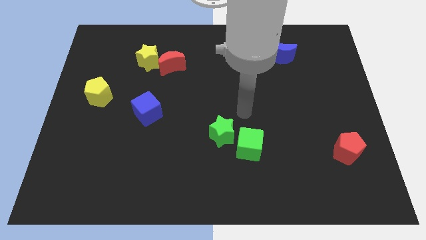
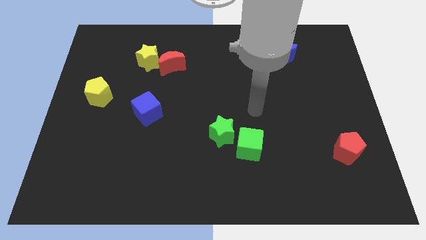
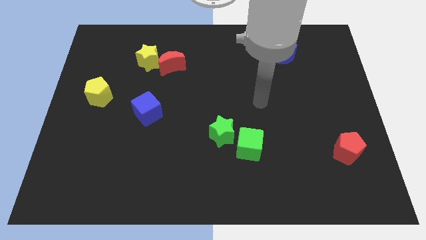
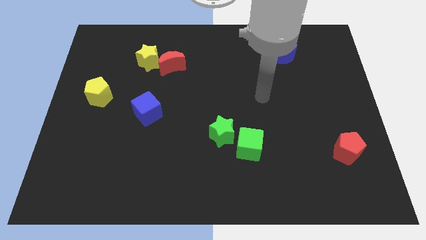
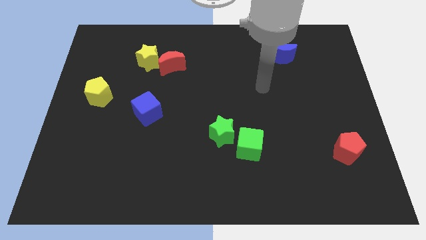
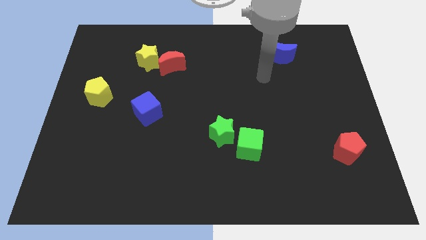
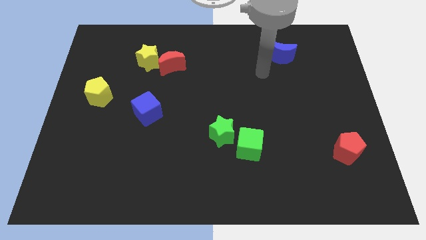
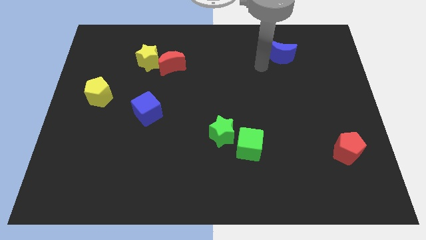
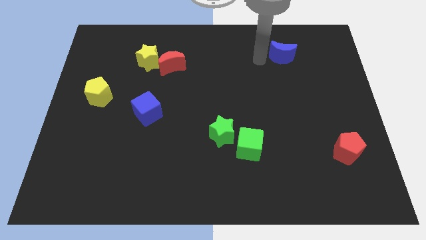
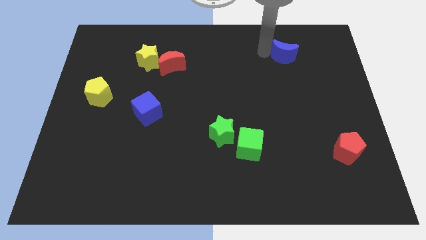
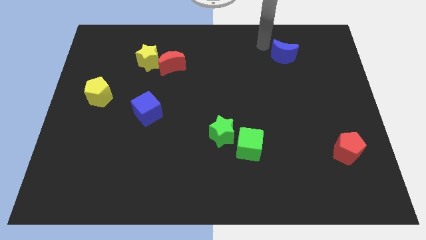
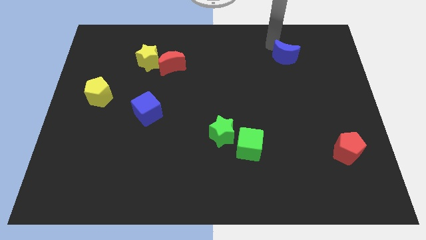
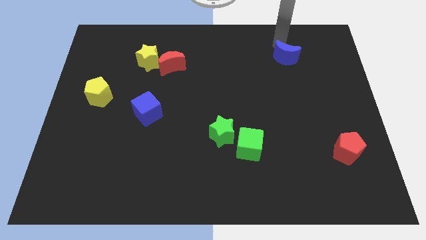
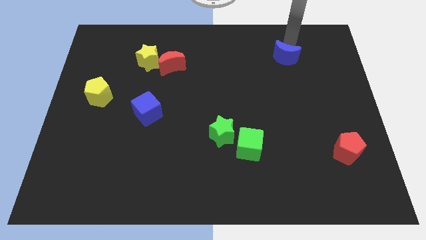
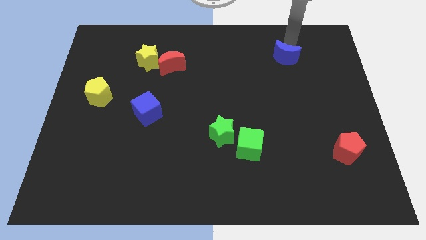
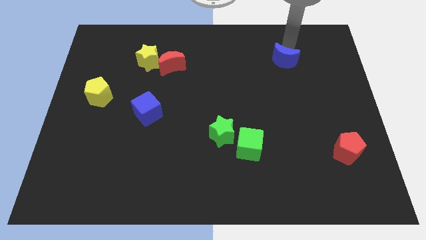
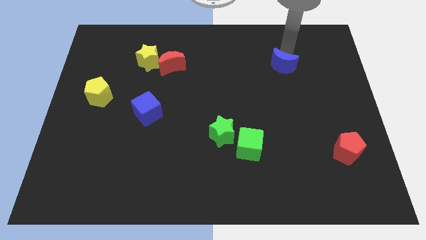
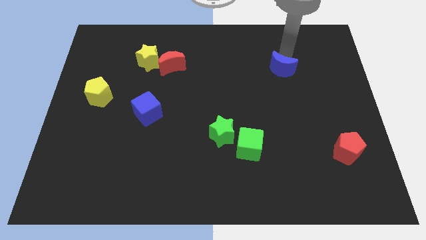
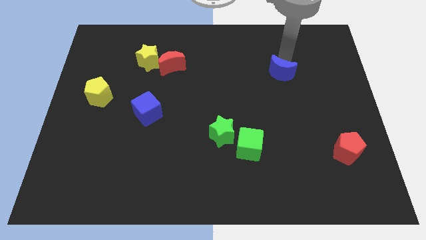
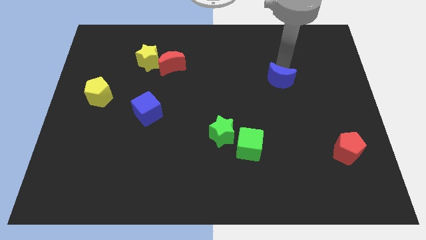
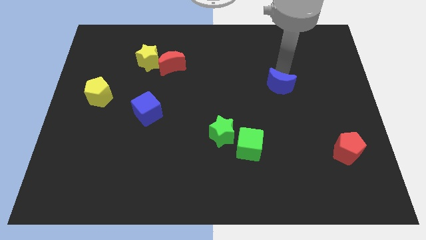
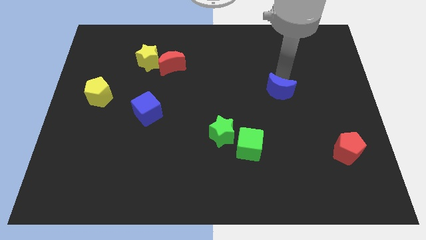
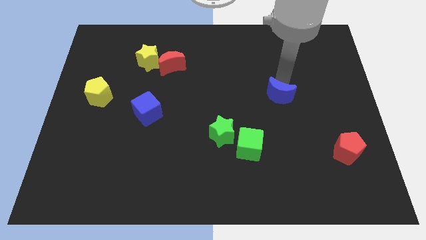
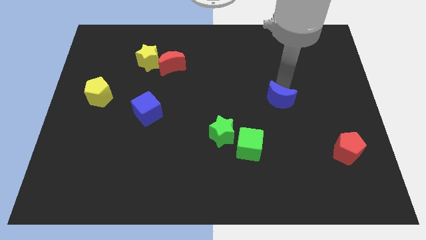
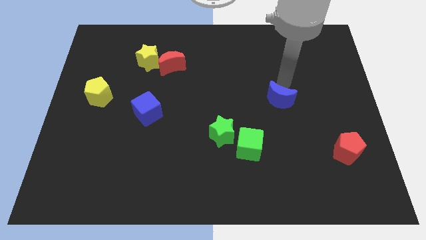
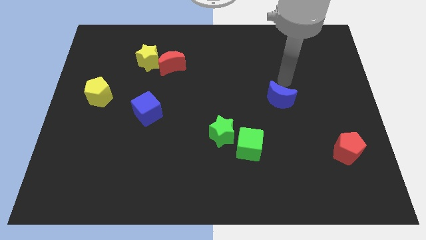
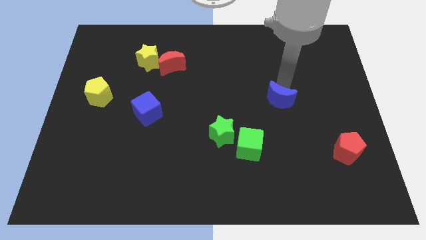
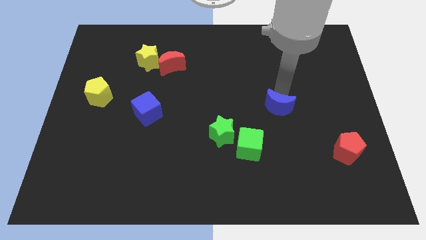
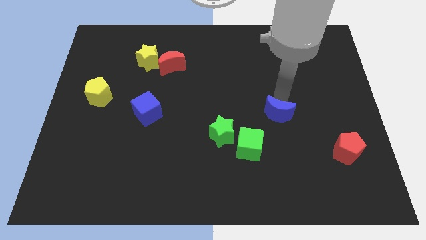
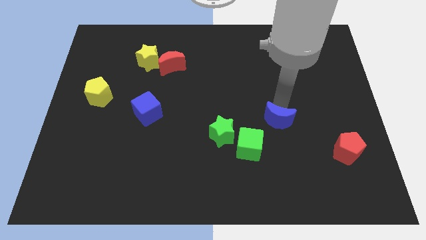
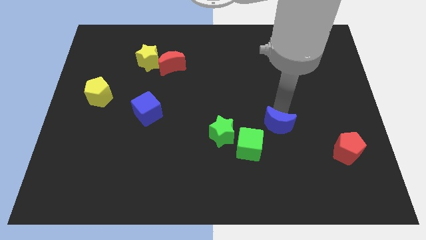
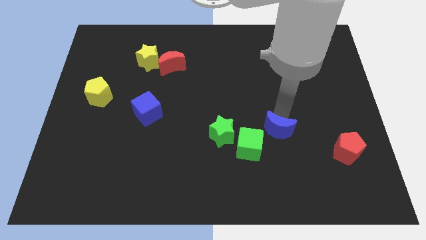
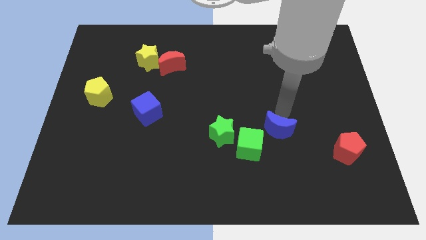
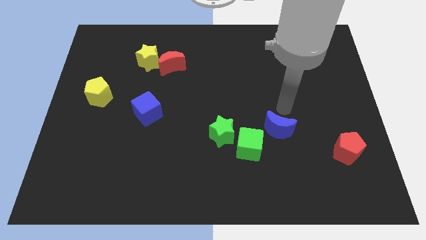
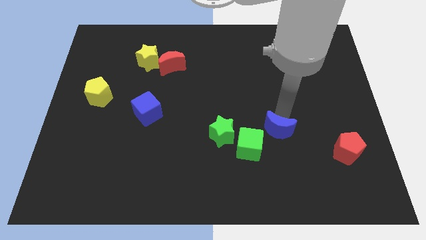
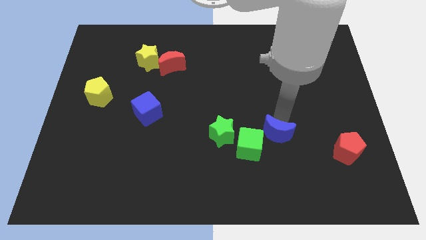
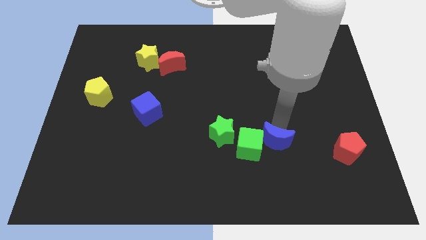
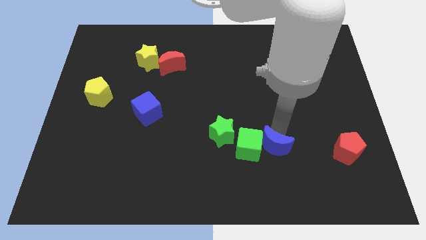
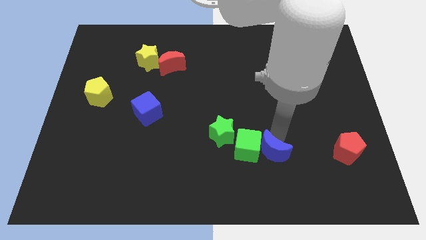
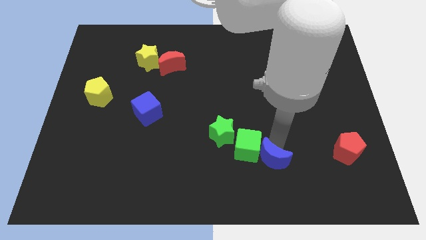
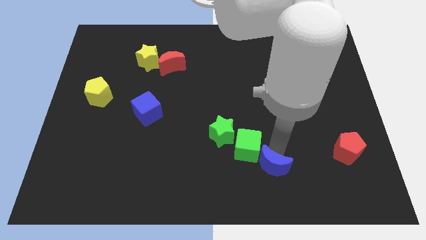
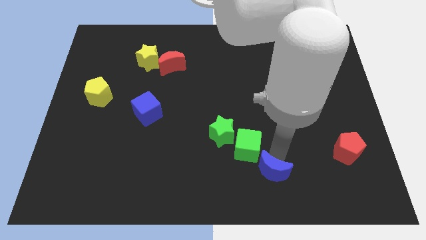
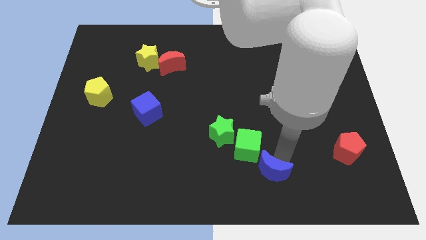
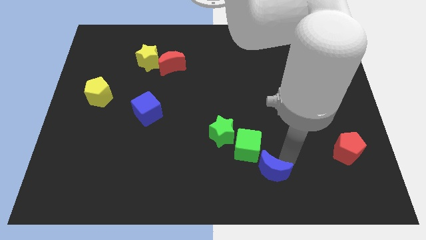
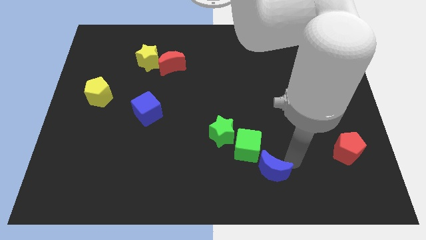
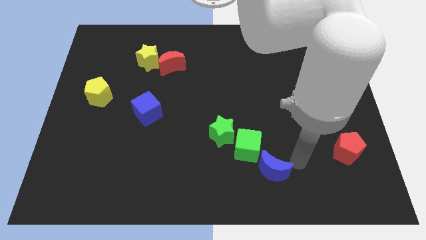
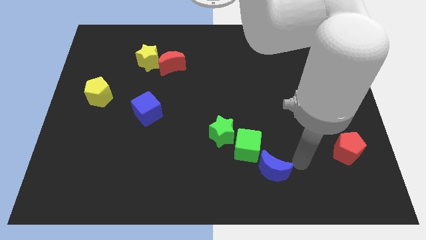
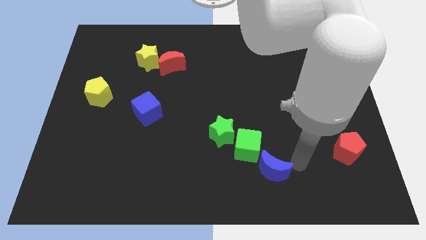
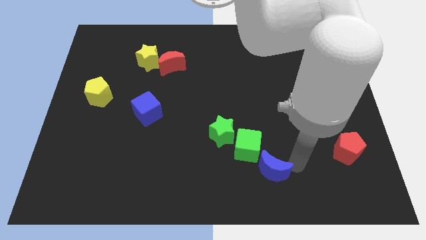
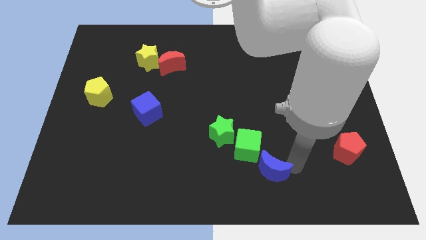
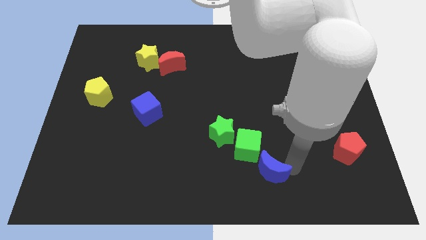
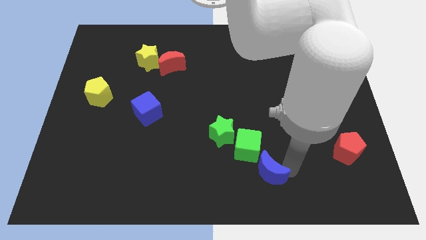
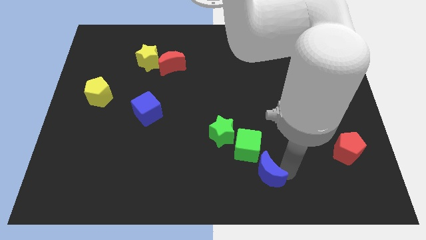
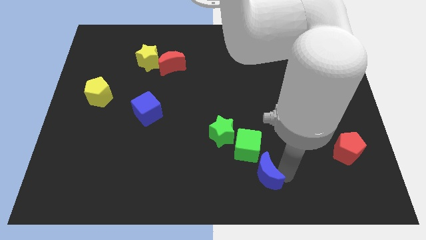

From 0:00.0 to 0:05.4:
put the blue moon to the bottom side

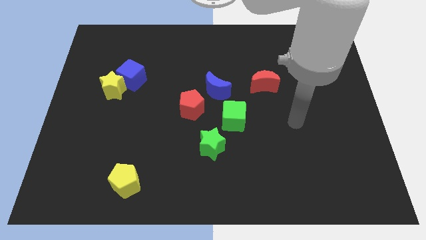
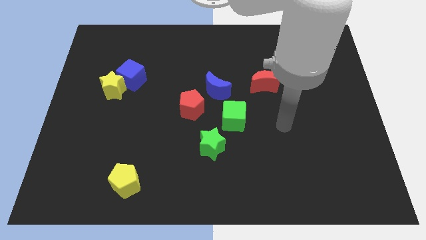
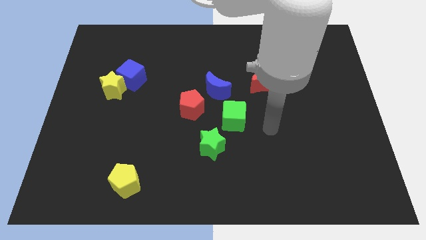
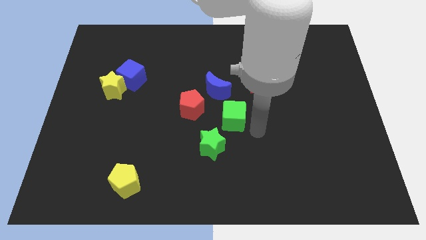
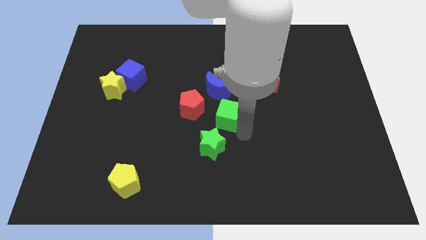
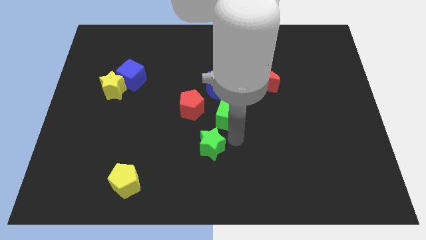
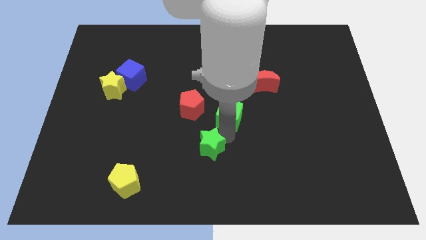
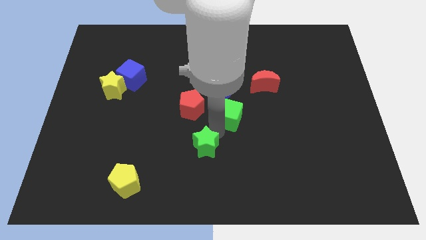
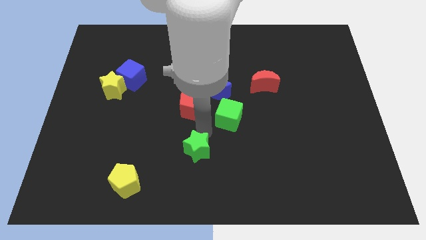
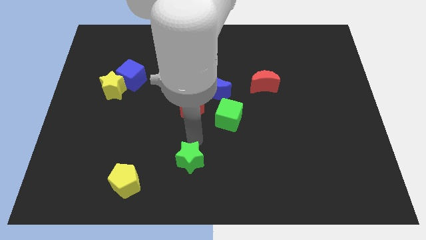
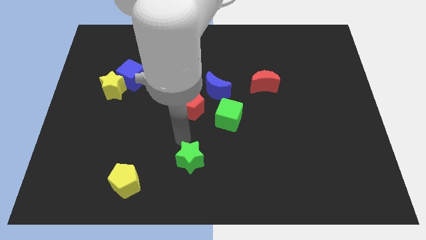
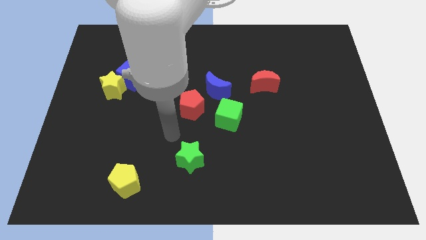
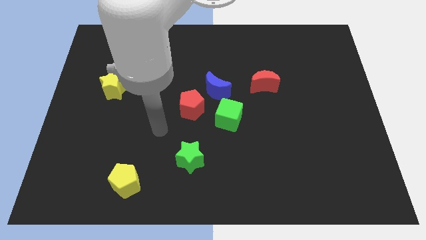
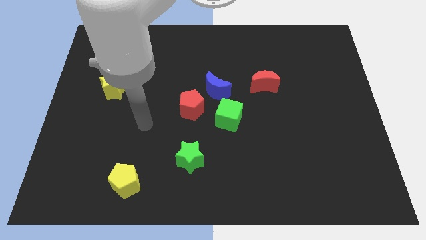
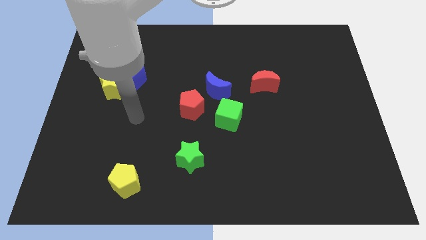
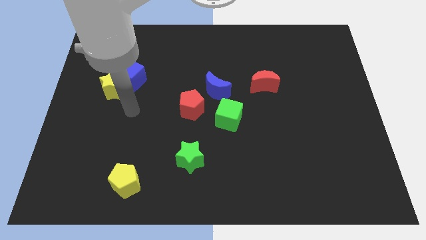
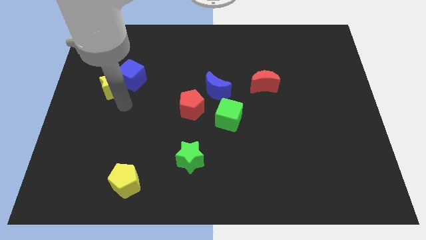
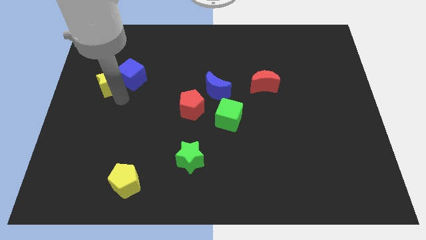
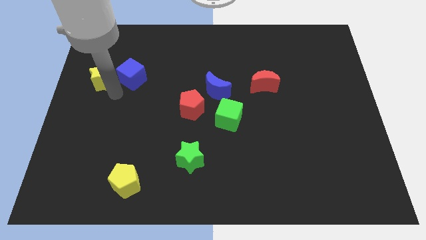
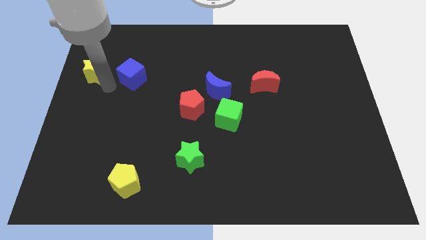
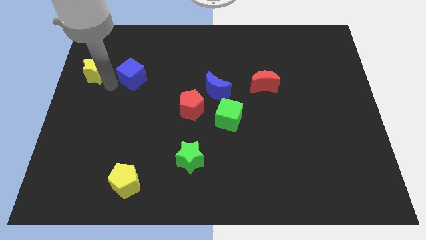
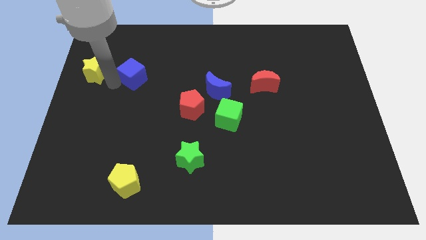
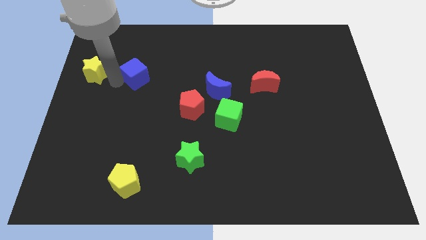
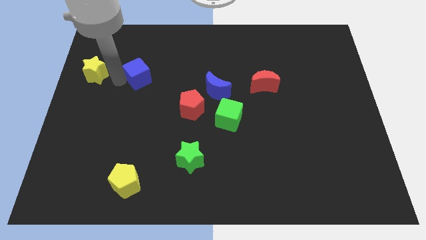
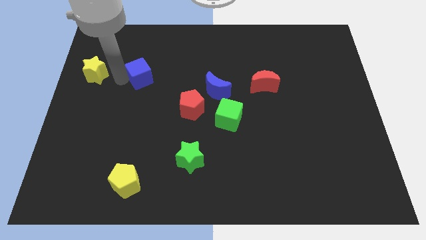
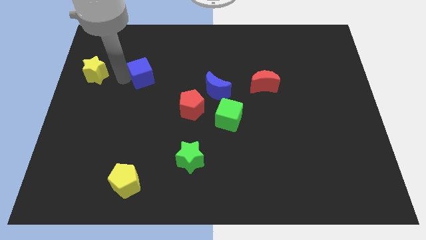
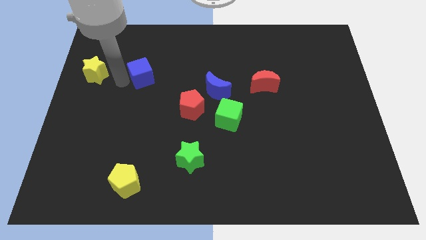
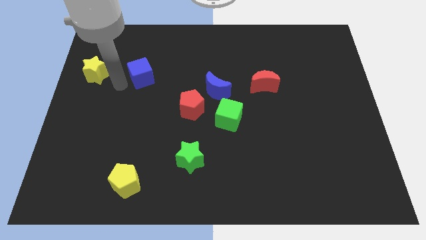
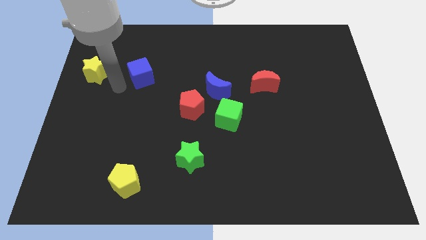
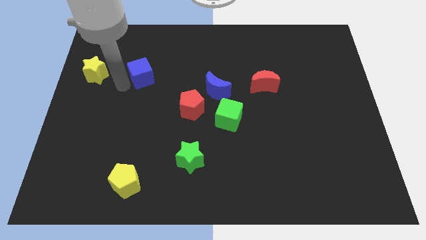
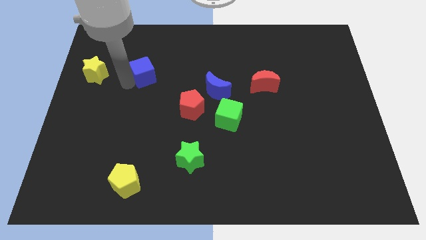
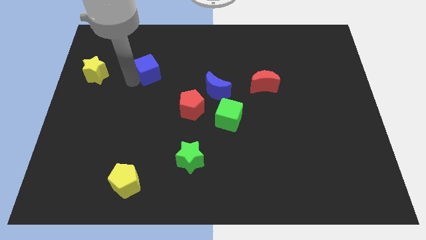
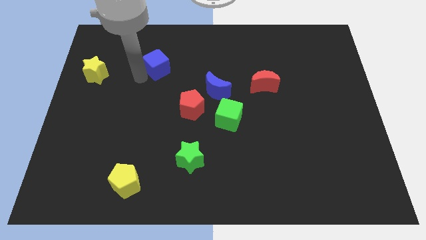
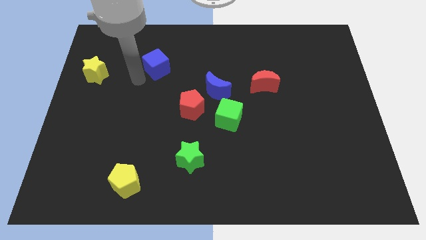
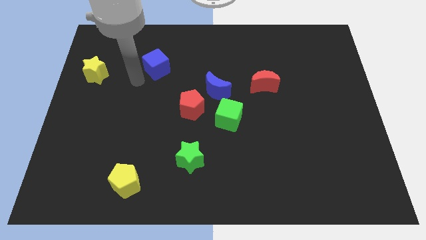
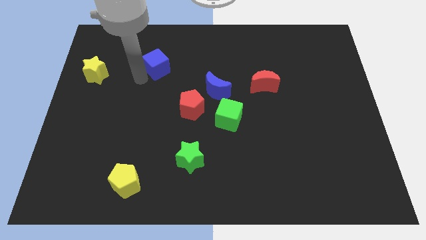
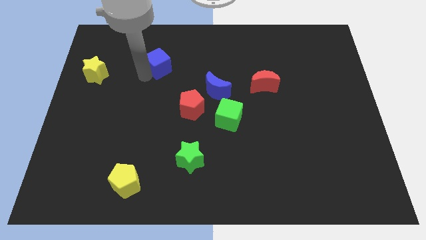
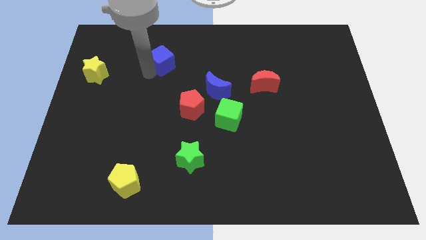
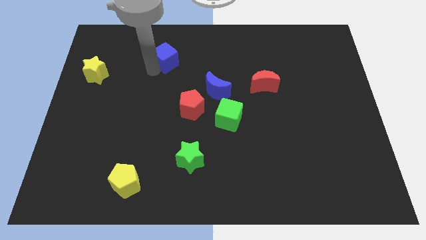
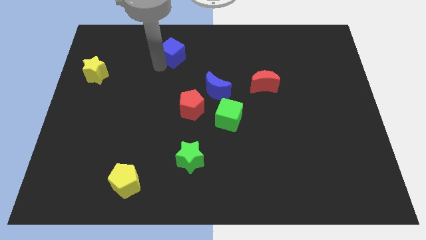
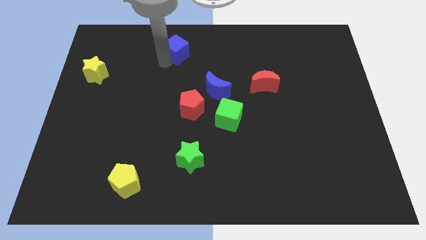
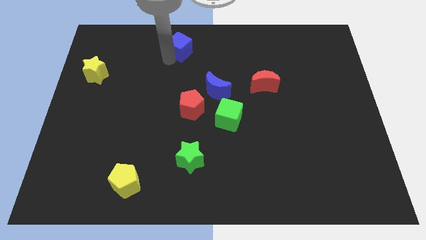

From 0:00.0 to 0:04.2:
slide the blue cube to the towards your base
